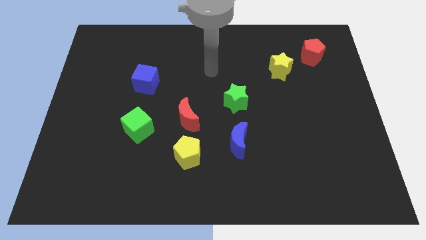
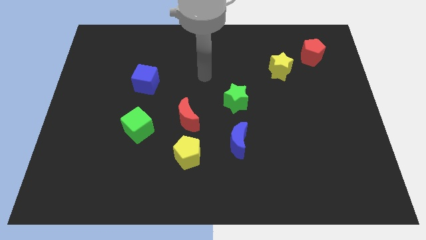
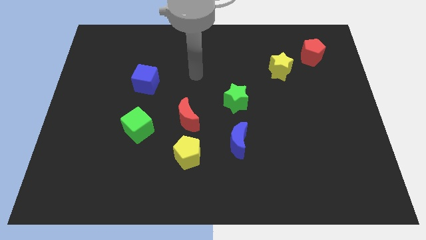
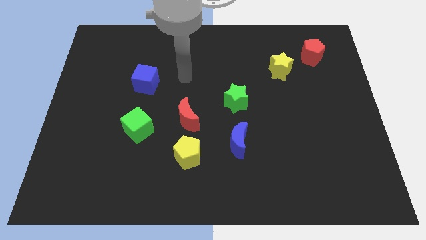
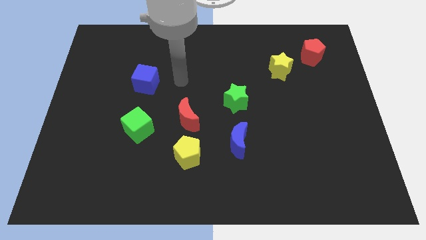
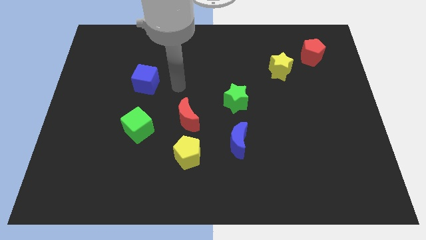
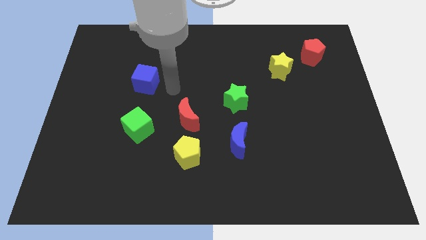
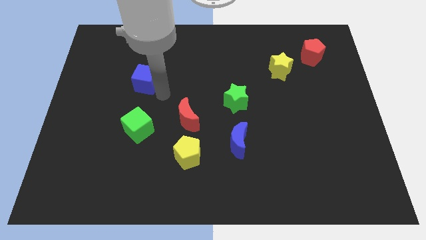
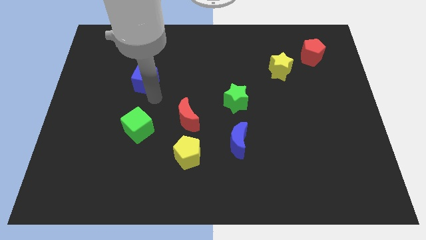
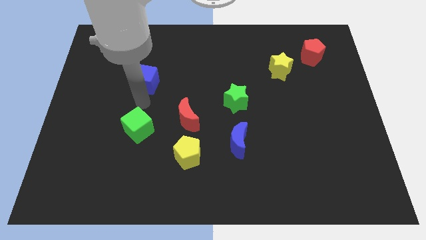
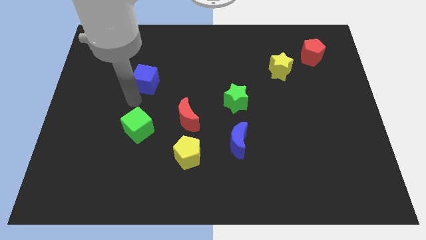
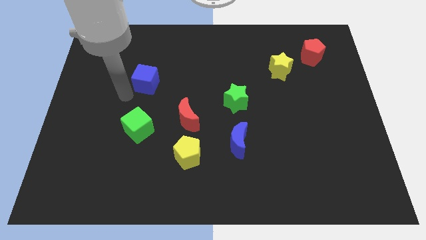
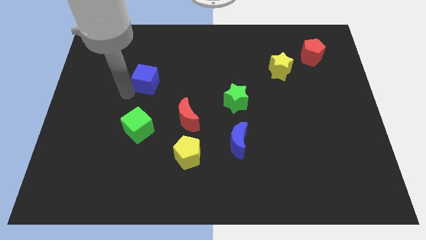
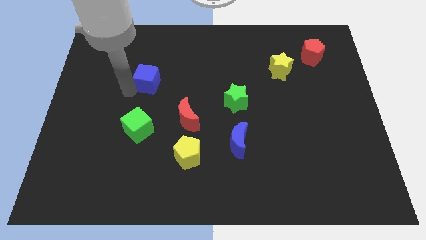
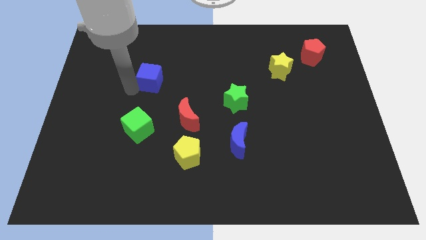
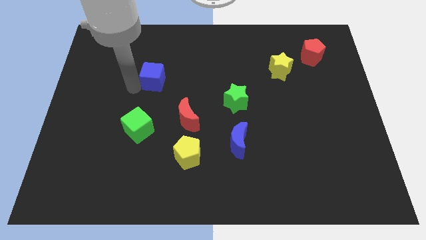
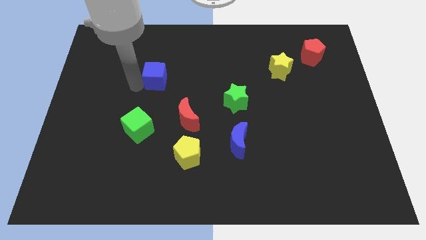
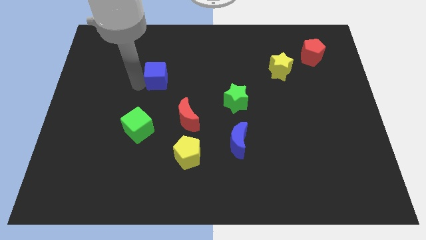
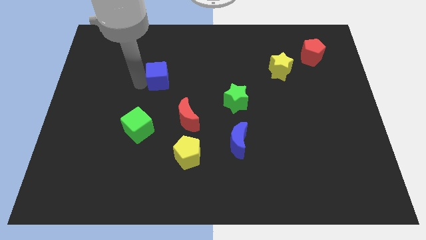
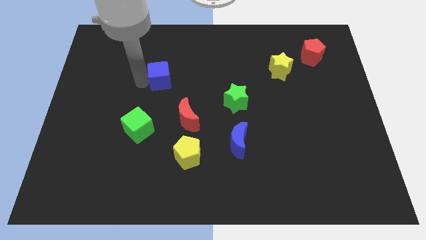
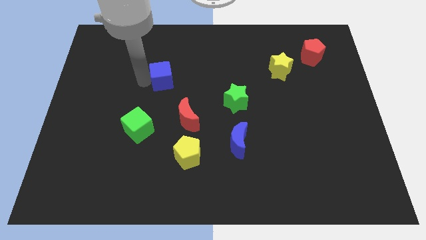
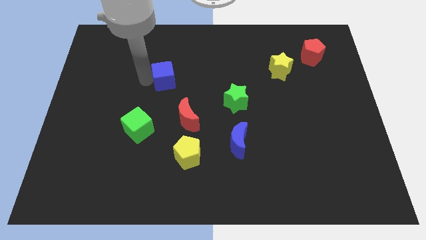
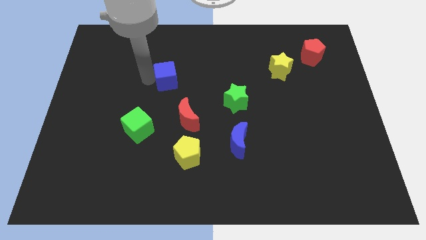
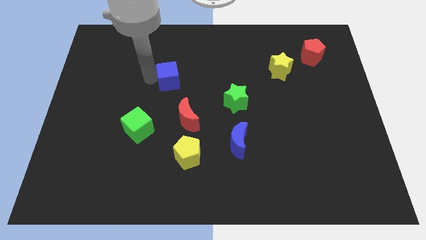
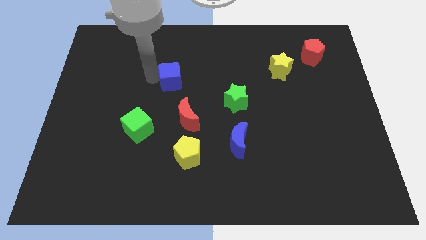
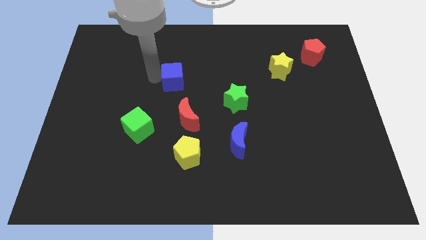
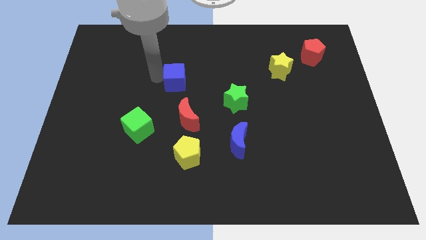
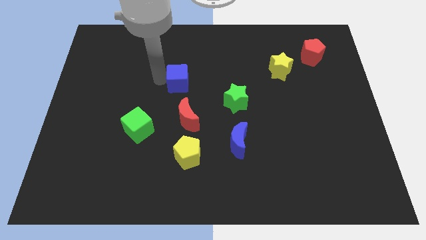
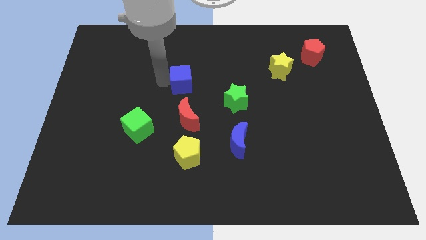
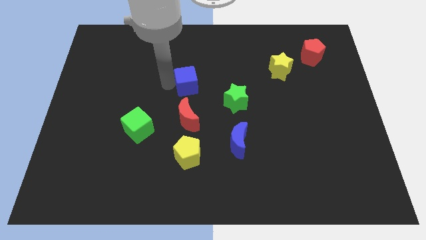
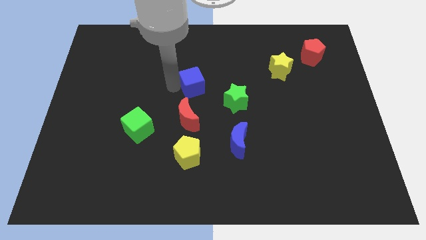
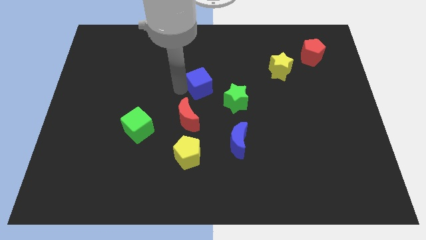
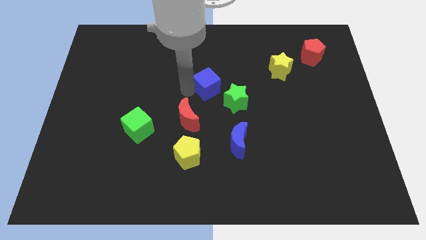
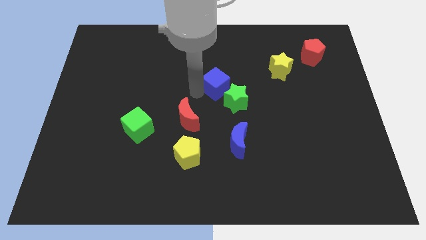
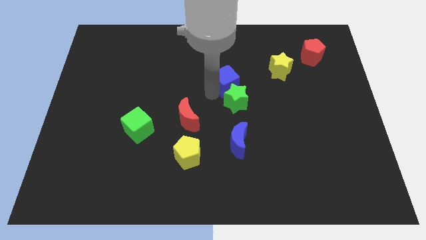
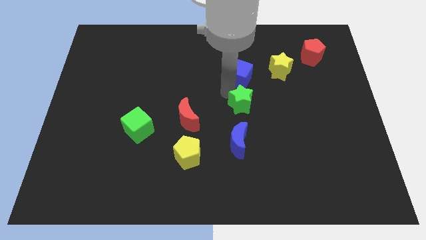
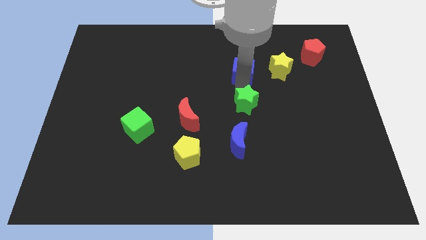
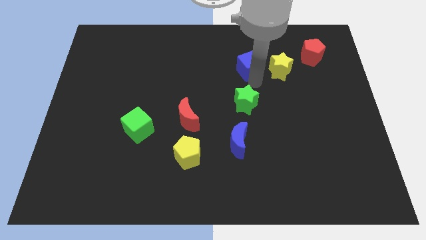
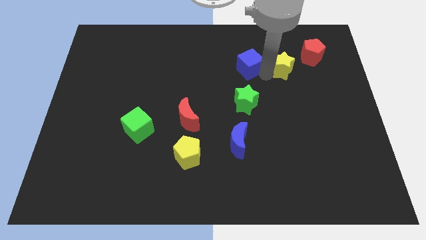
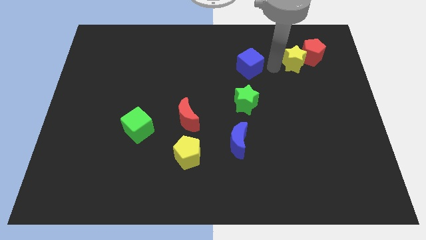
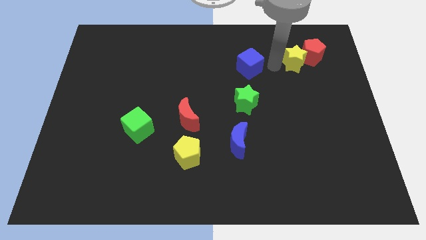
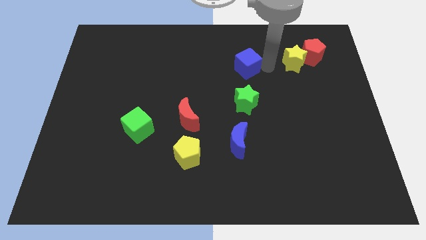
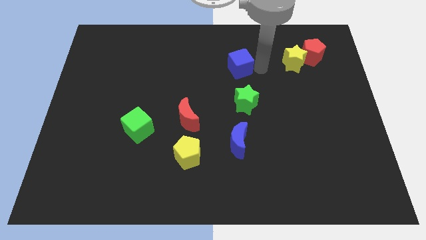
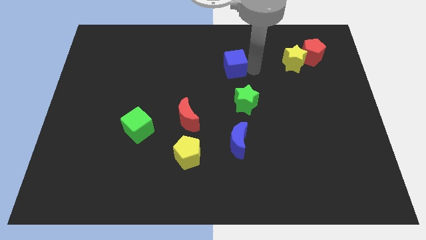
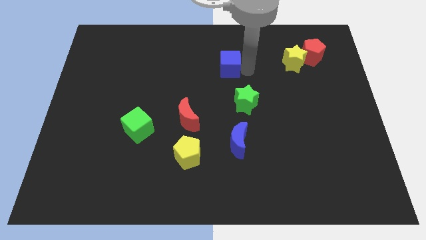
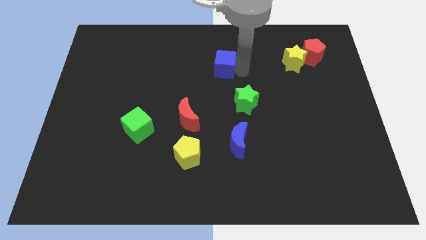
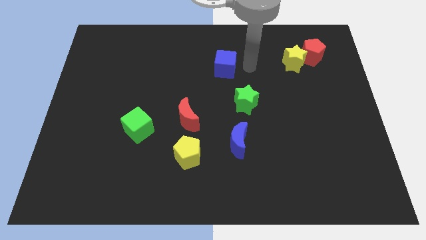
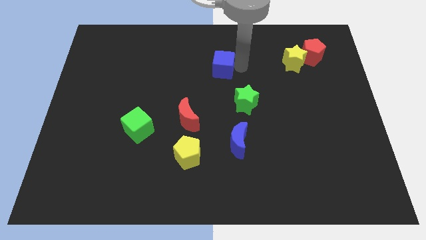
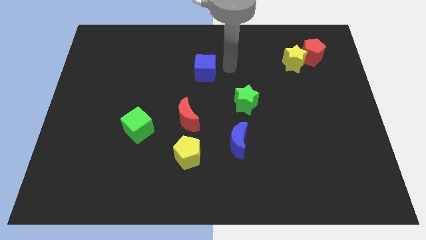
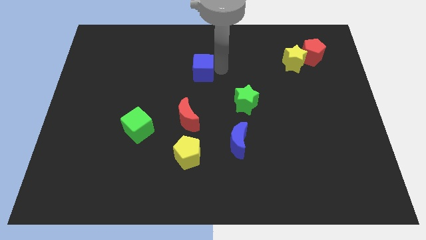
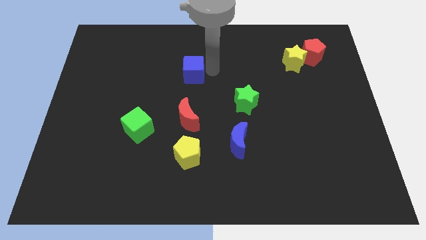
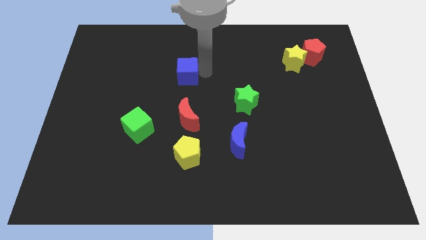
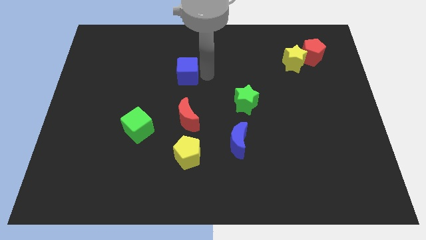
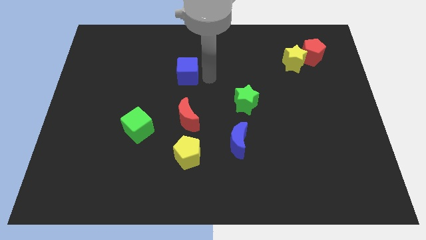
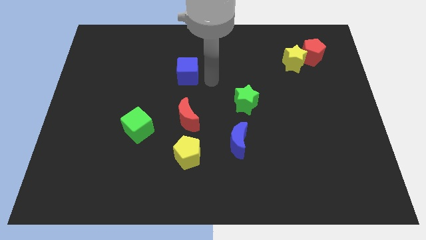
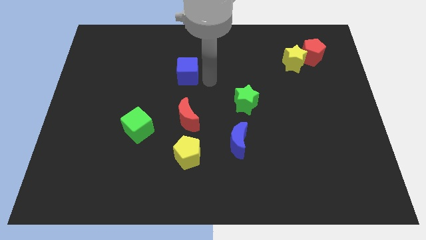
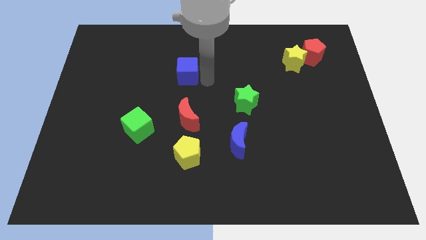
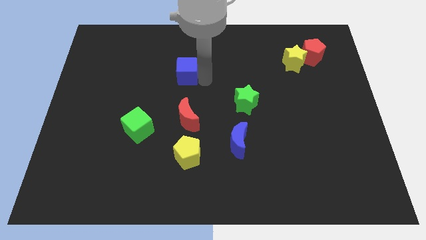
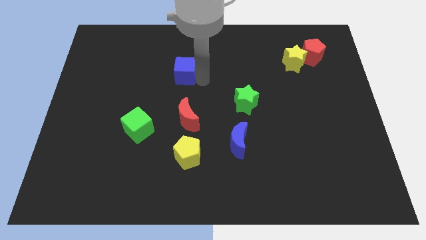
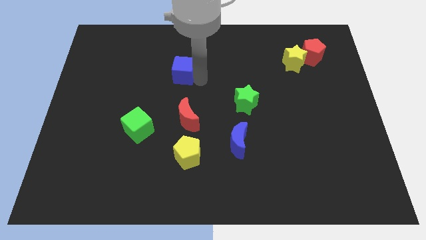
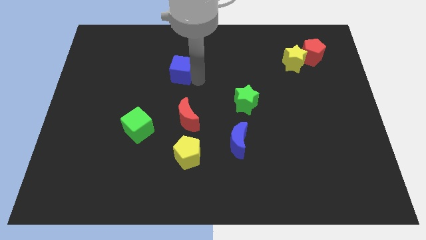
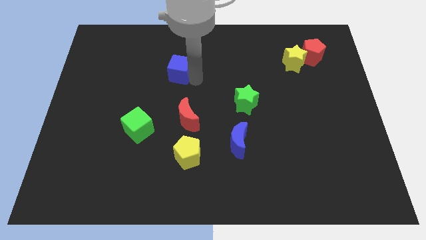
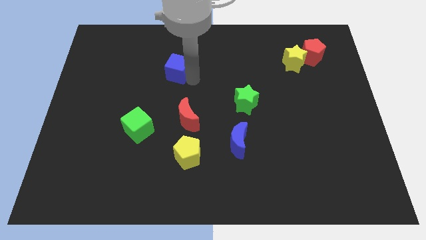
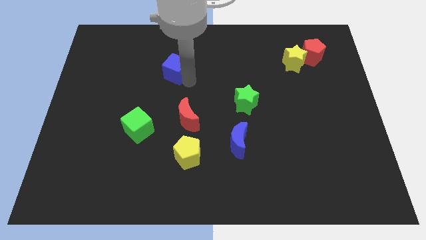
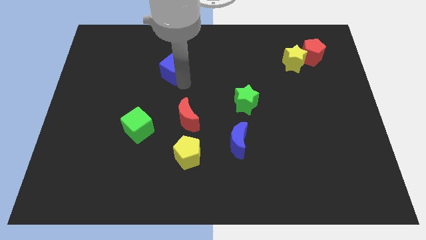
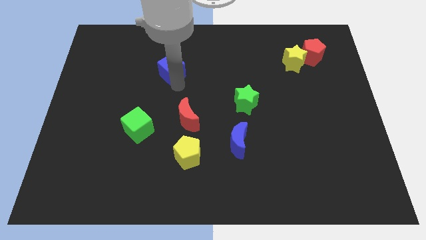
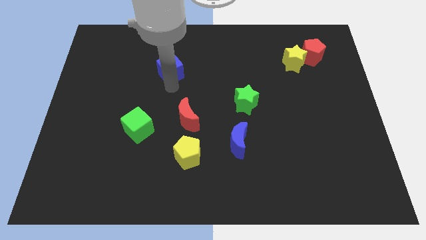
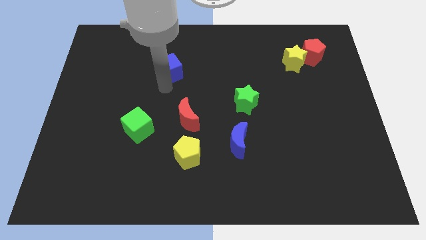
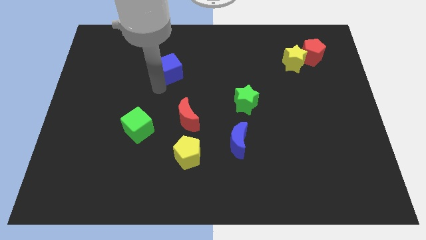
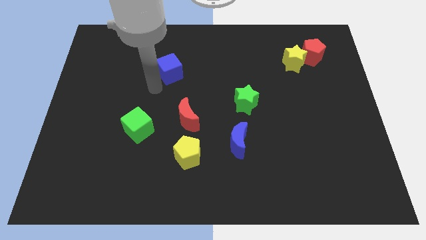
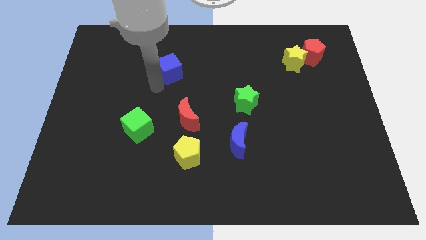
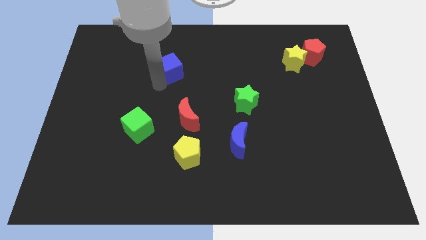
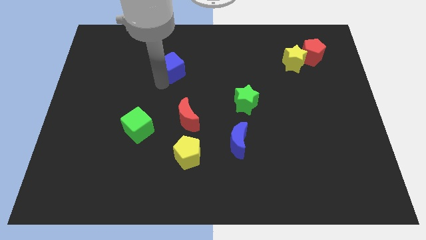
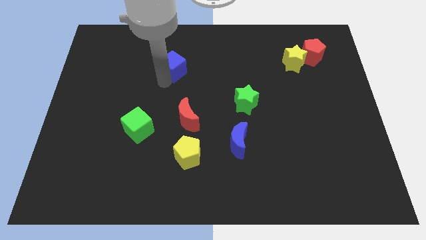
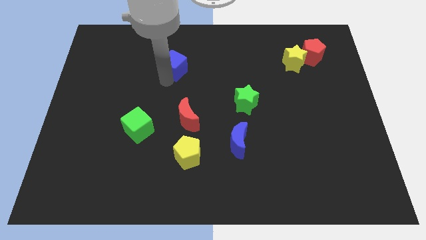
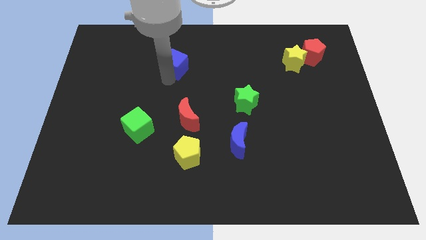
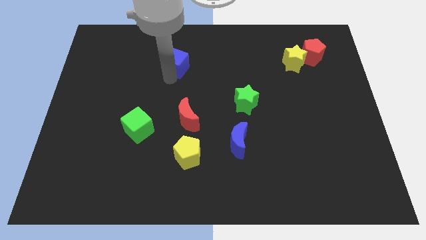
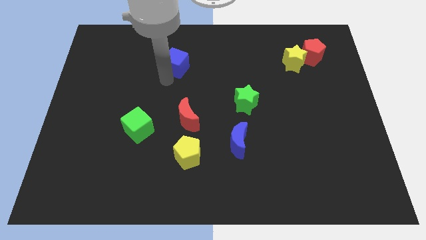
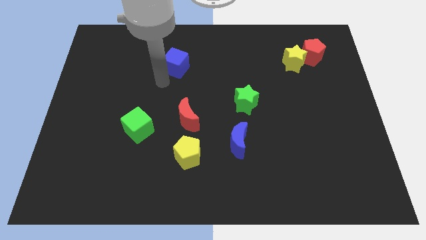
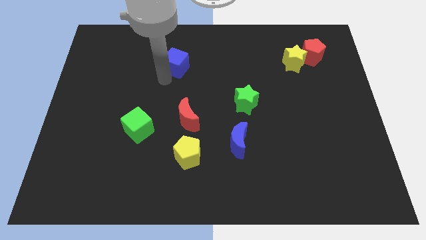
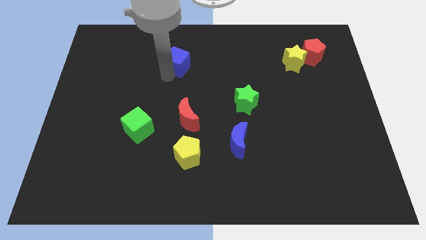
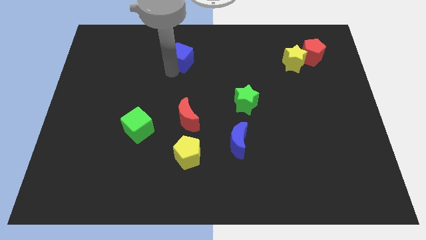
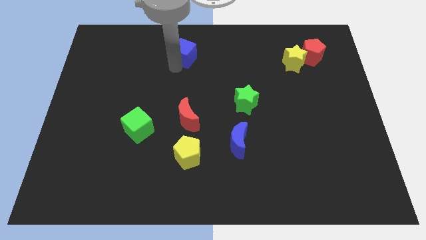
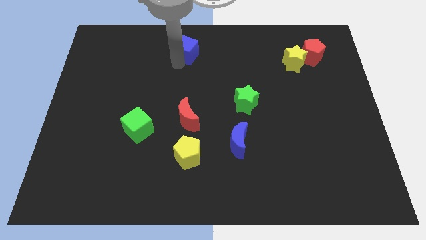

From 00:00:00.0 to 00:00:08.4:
push the blue cube to the top
